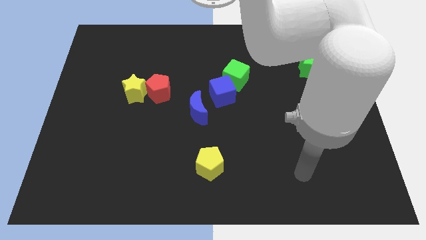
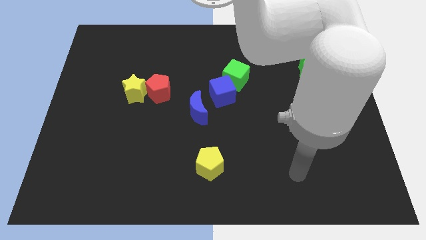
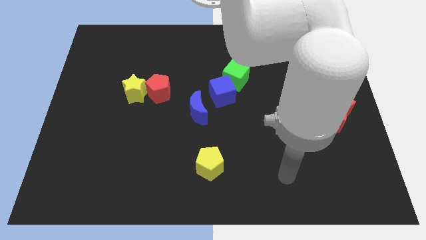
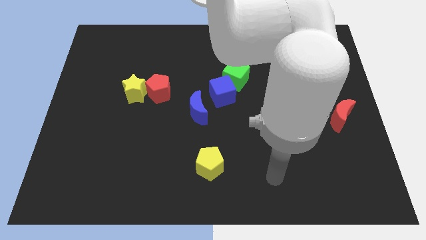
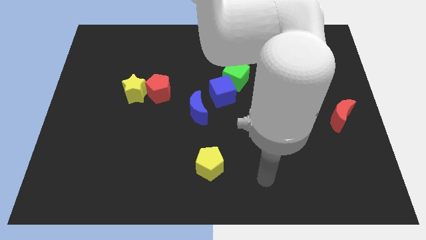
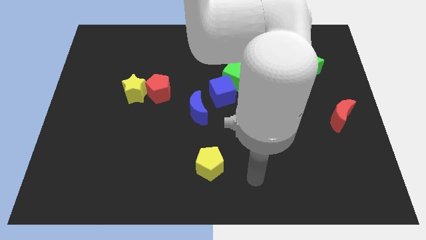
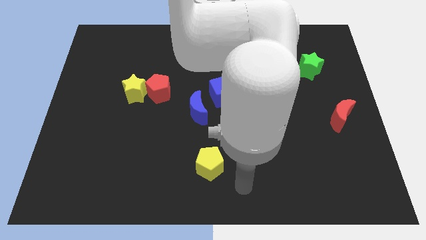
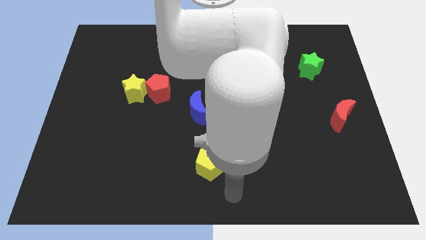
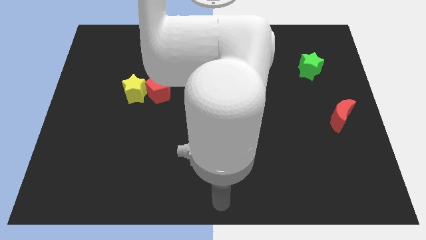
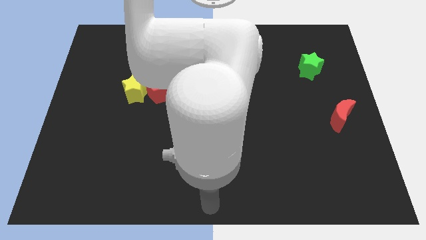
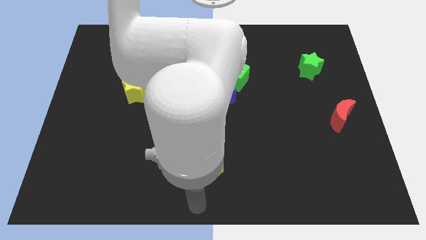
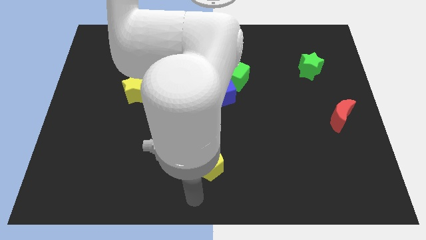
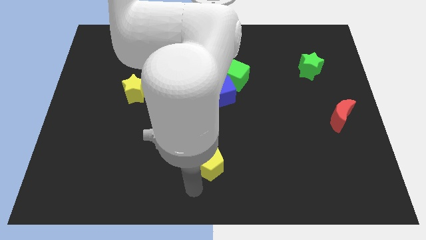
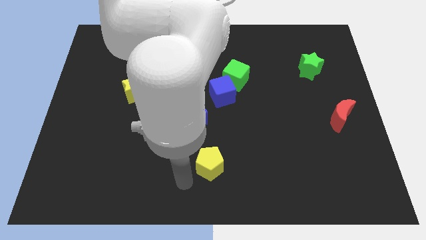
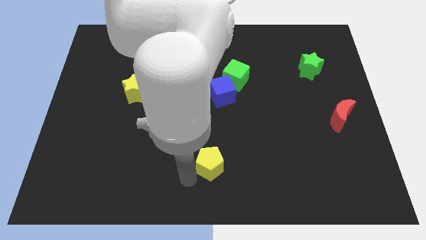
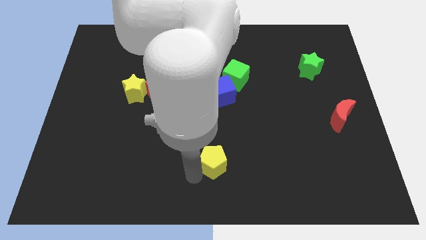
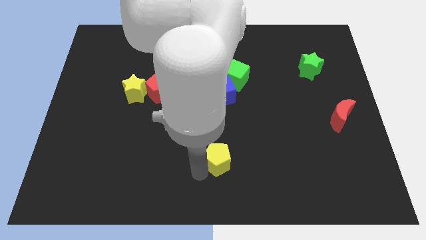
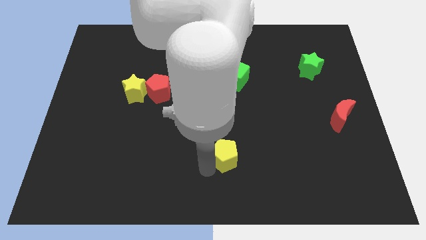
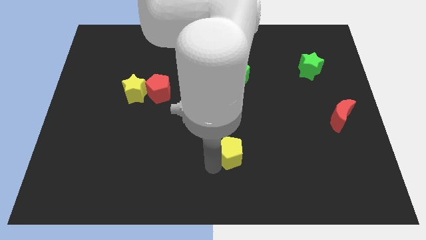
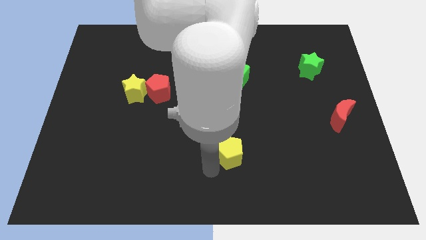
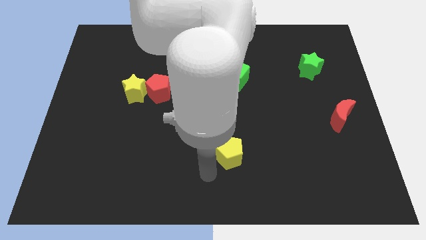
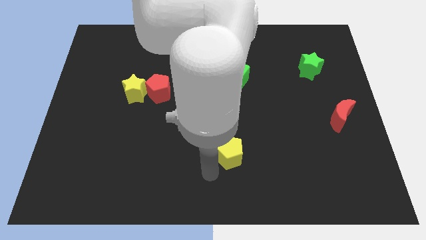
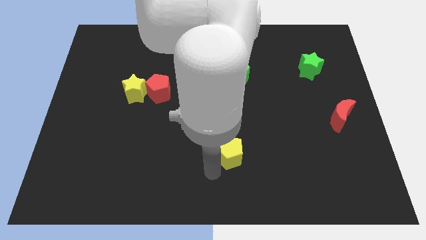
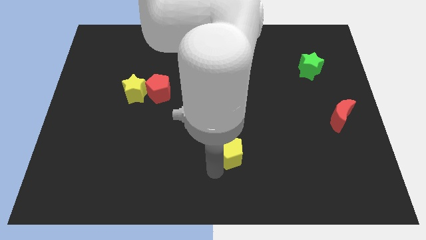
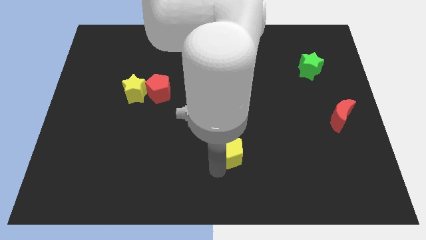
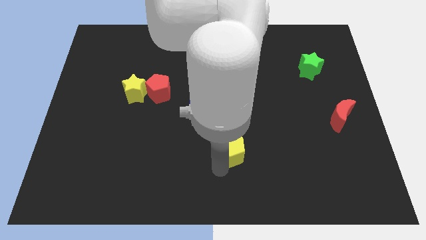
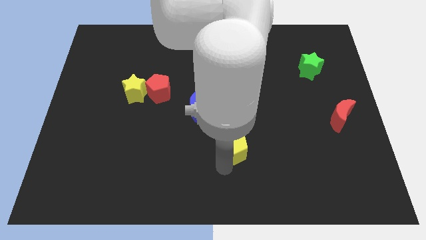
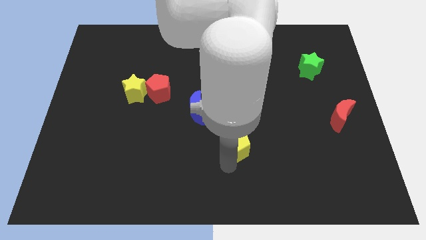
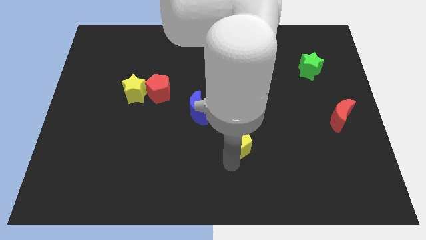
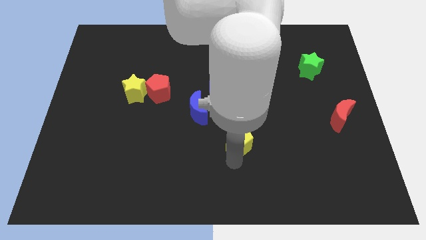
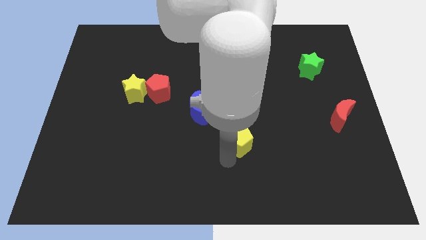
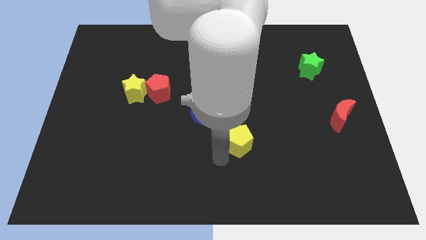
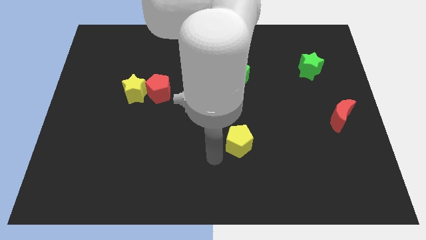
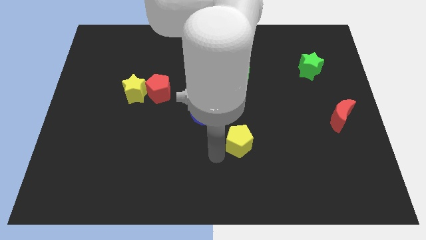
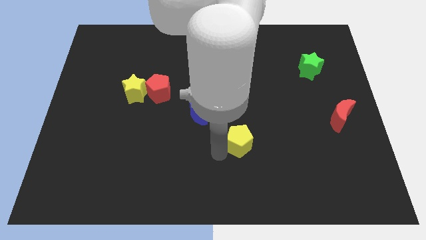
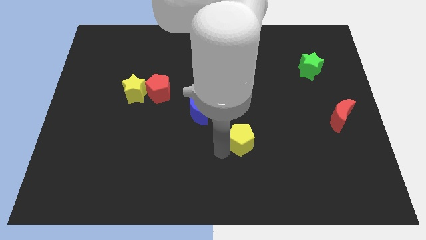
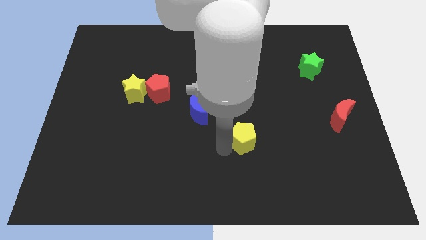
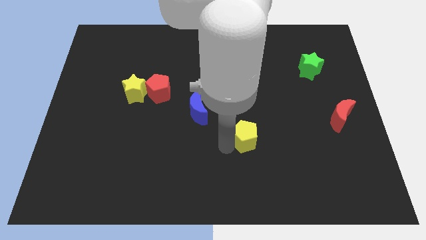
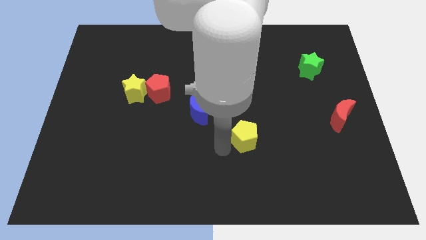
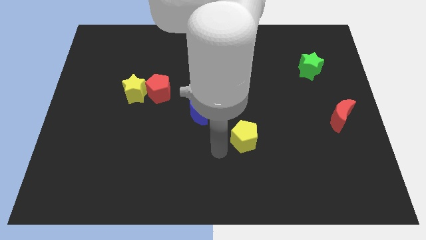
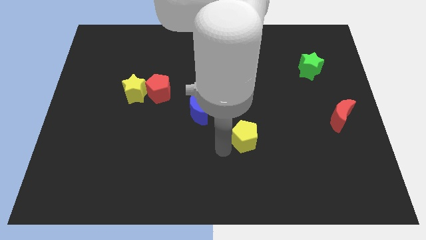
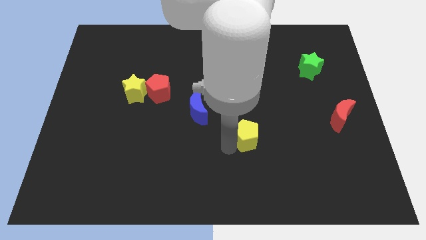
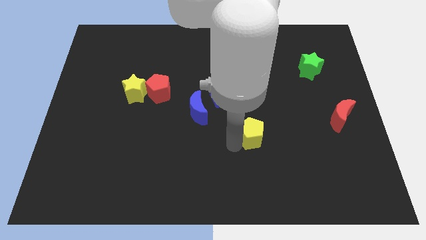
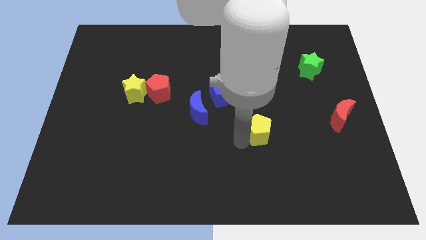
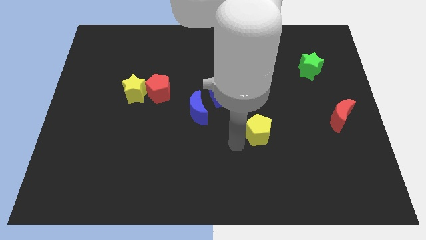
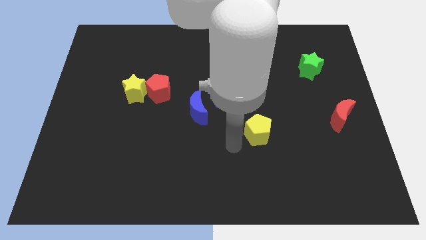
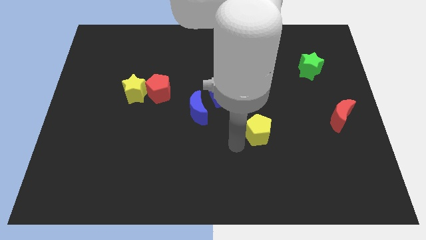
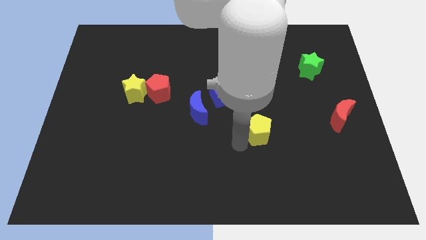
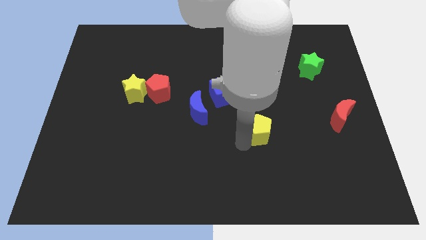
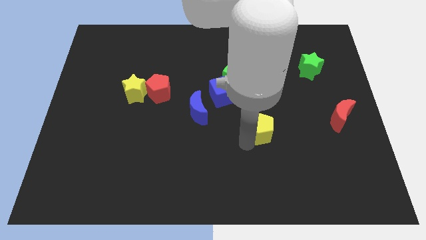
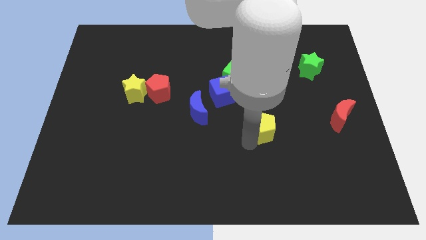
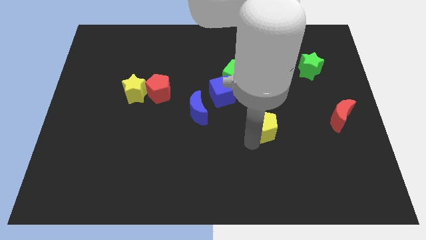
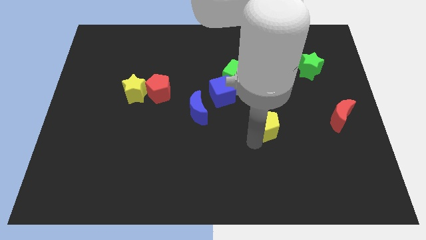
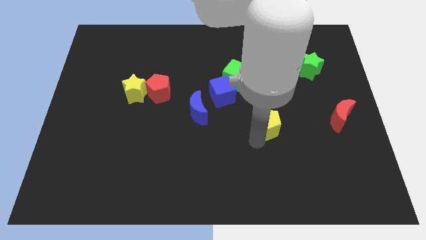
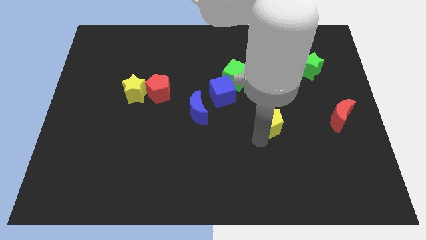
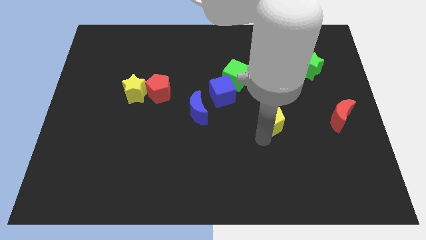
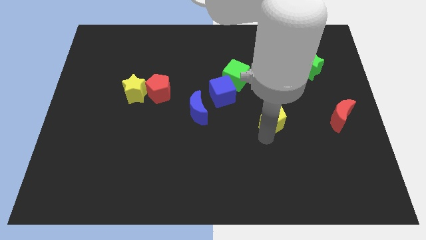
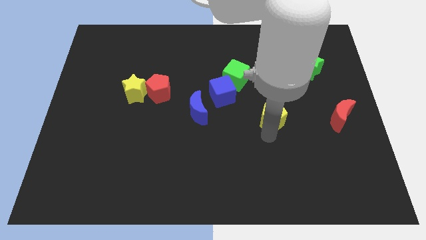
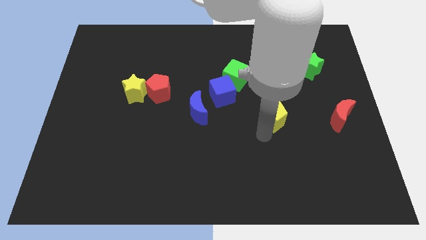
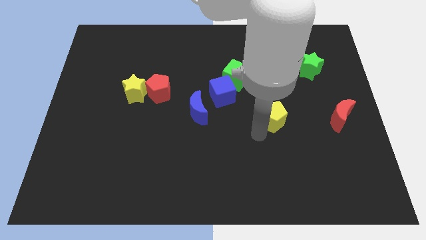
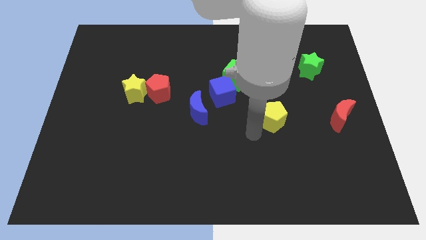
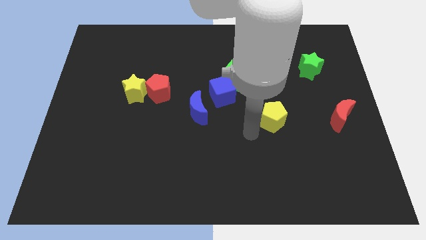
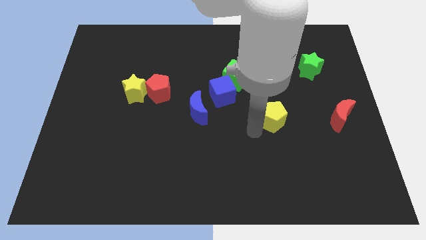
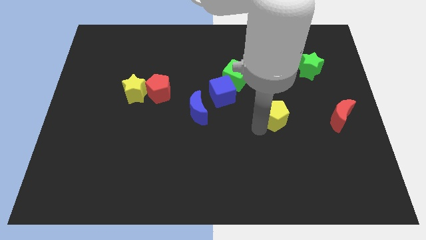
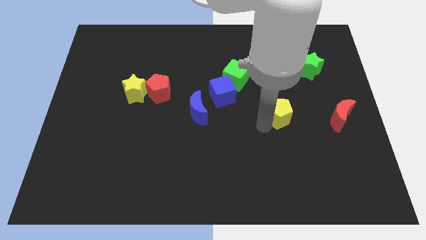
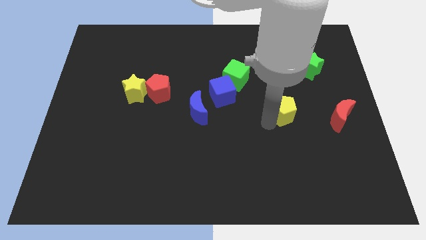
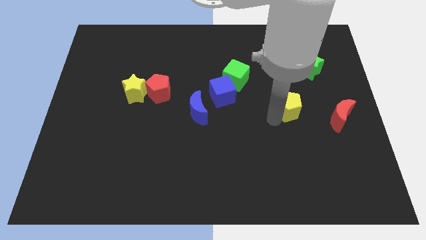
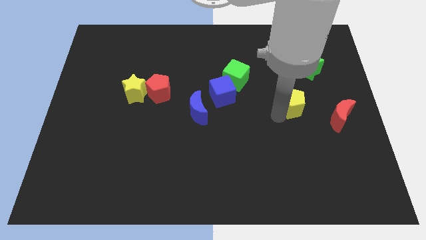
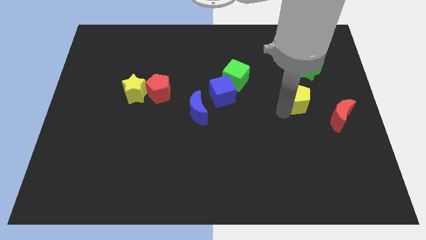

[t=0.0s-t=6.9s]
push the yellow pentagon to the bottom of the green star
